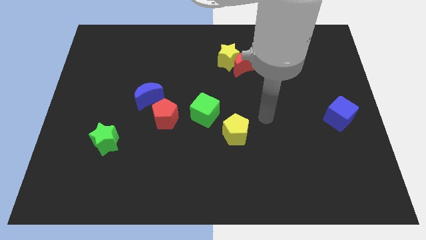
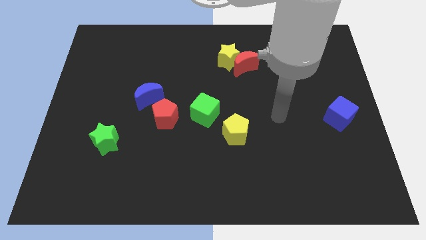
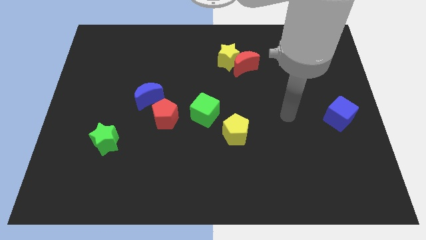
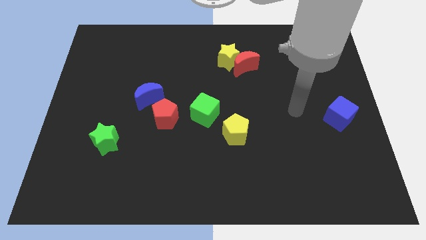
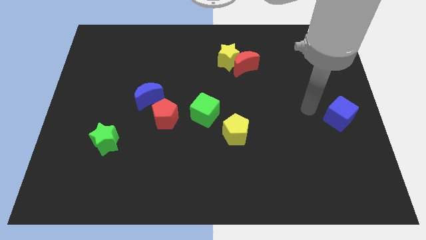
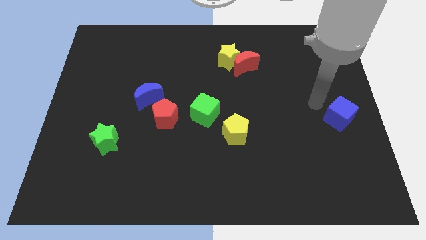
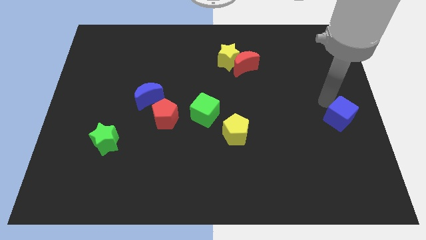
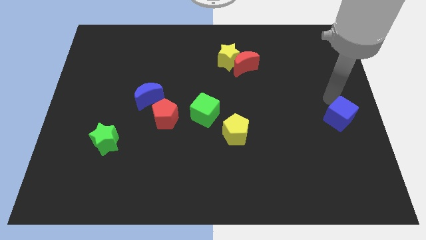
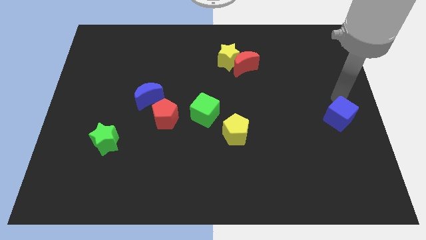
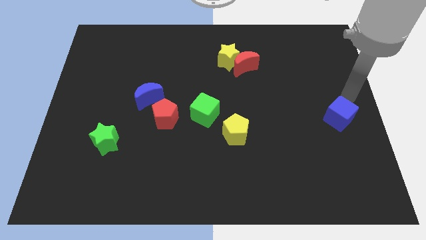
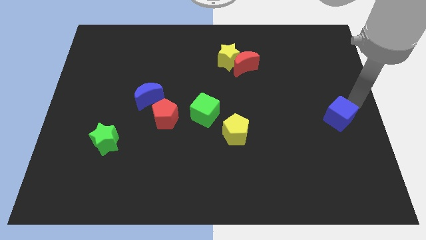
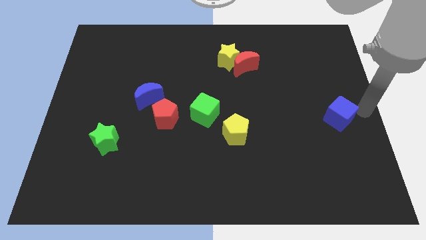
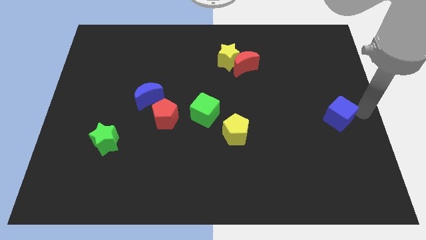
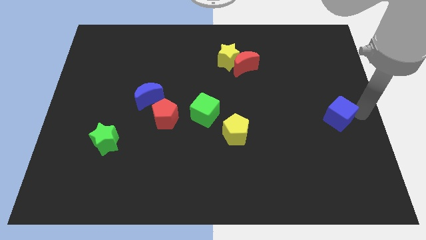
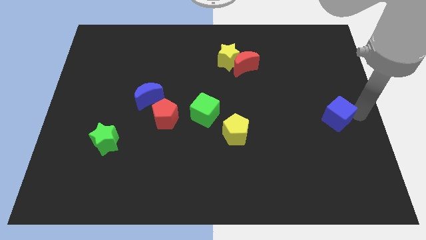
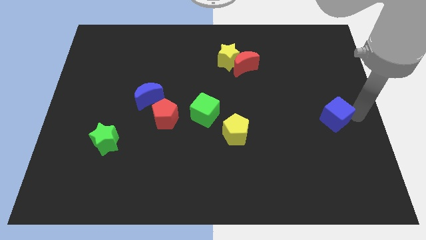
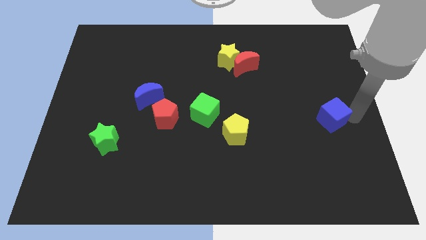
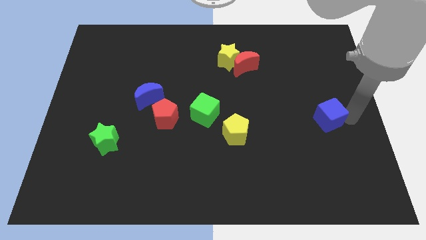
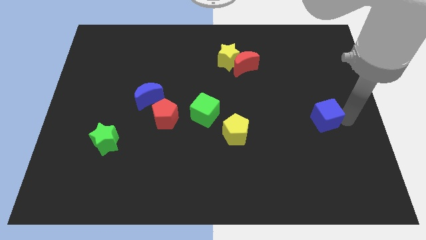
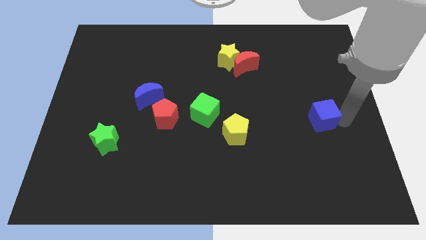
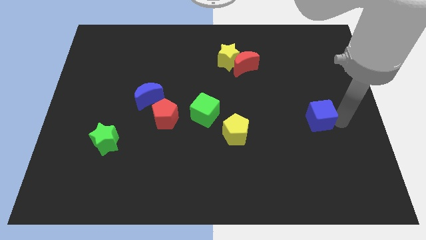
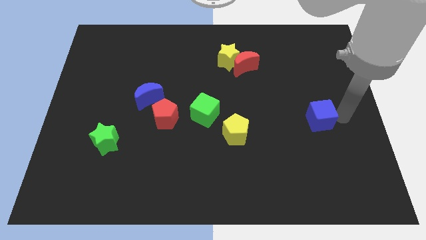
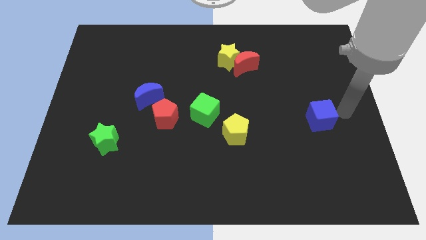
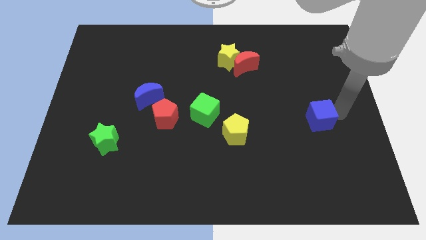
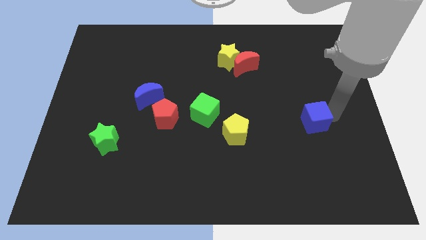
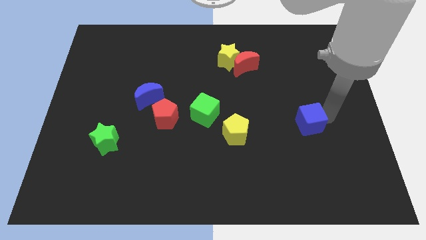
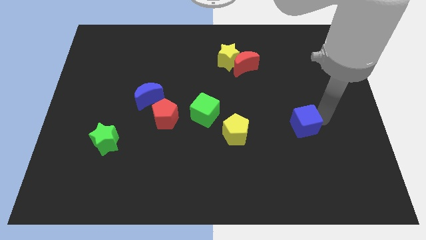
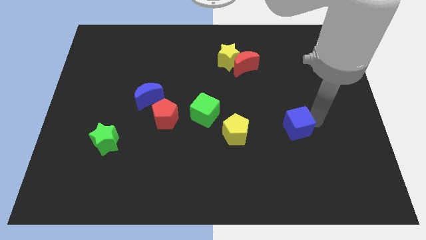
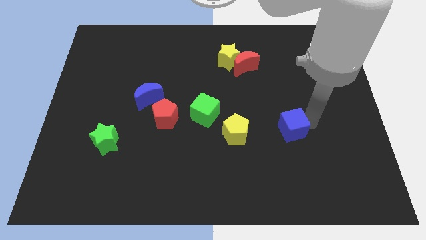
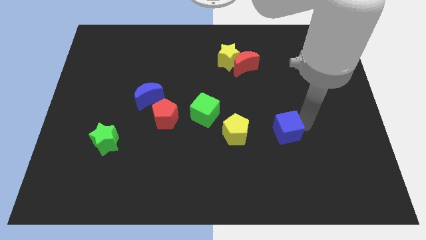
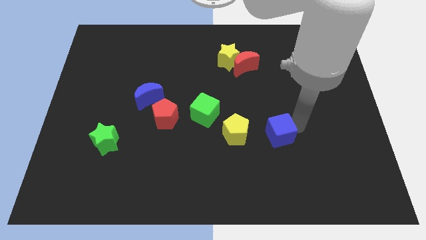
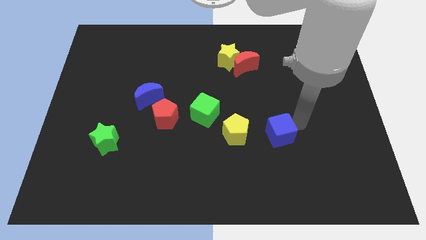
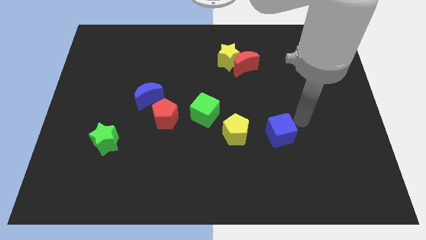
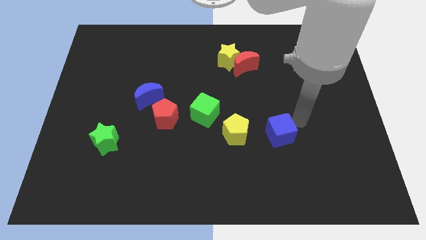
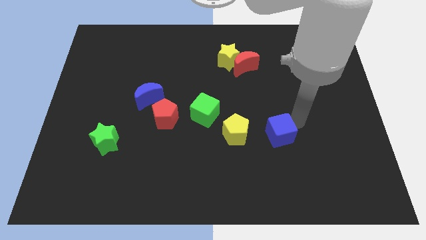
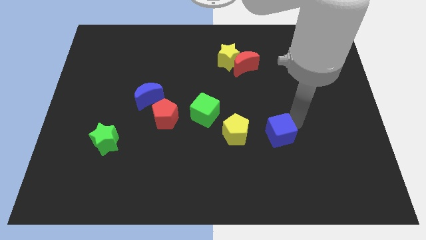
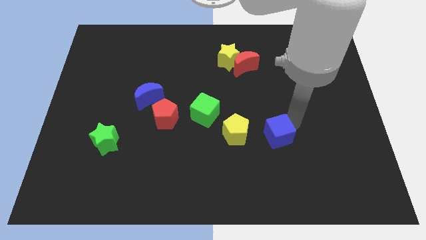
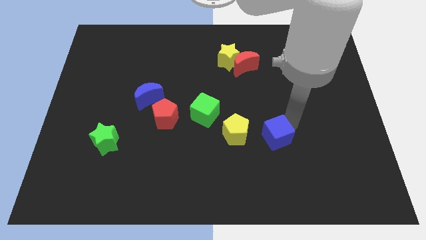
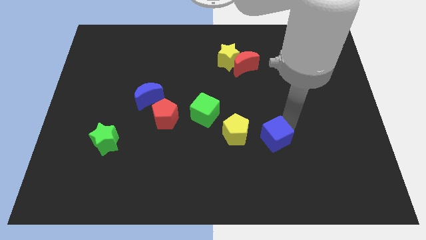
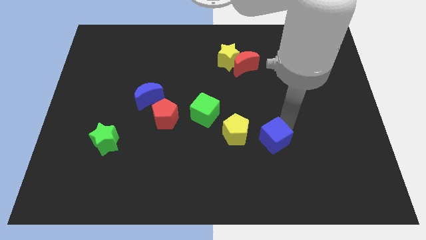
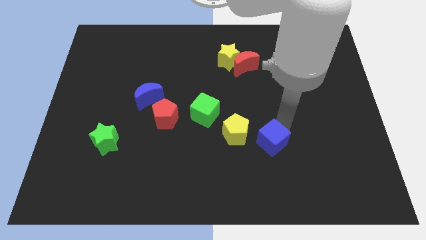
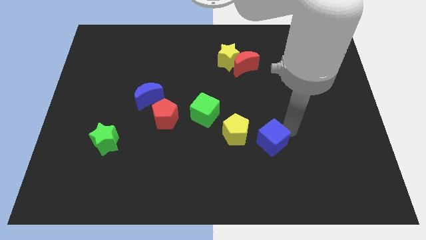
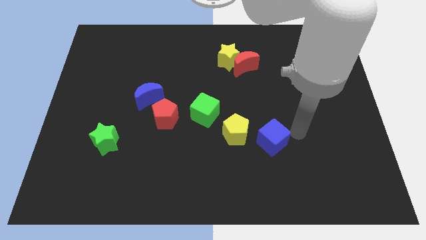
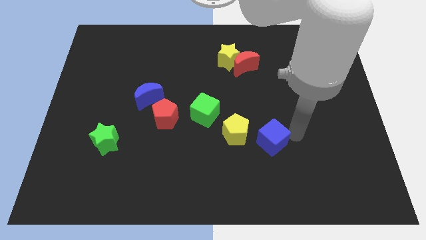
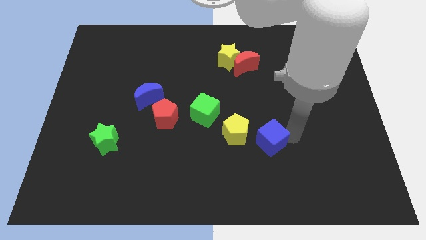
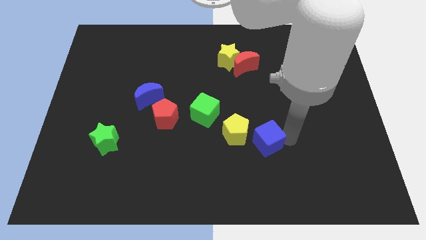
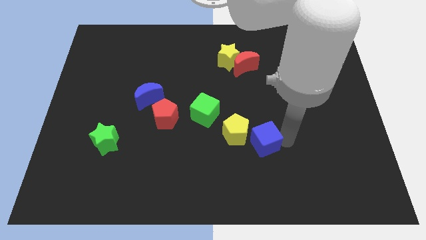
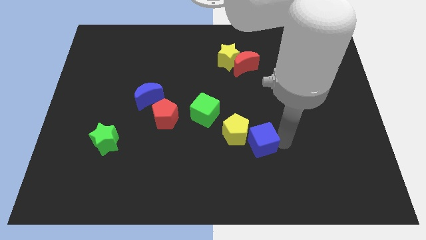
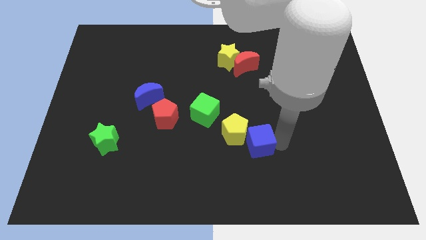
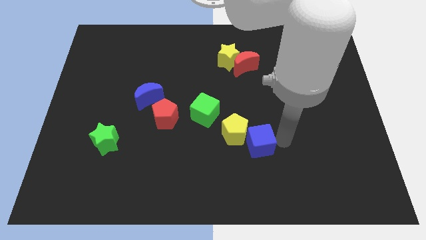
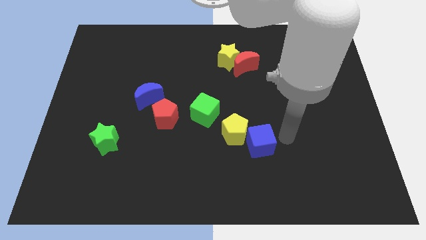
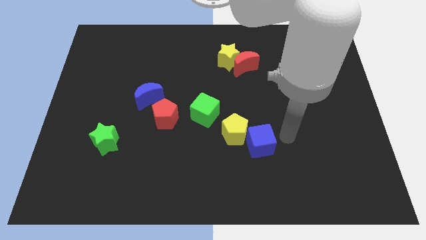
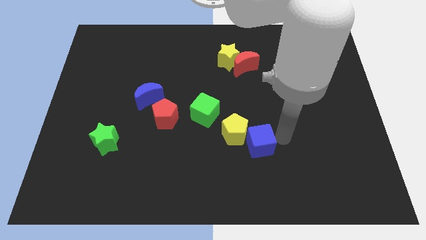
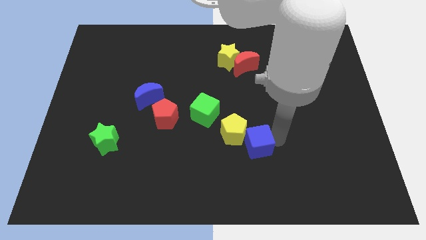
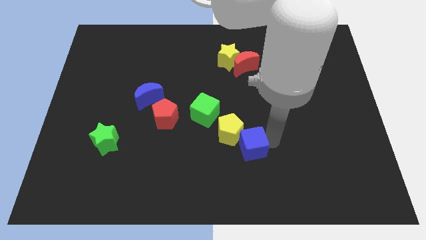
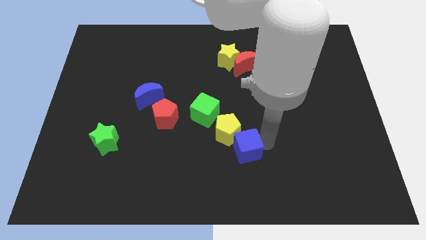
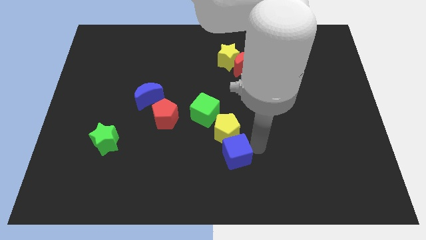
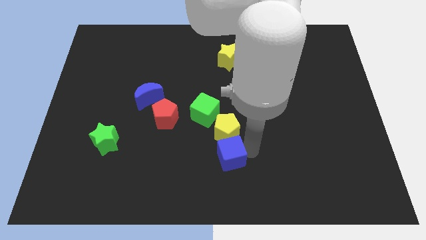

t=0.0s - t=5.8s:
slide the blue cube to the bottom left side of the yellow pentagon

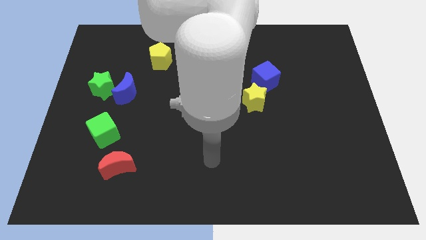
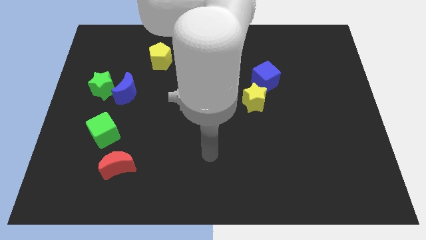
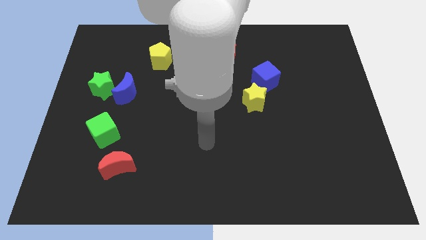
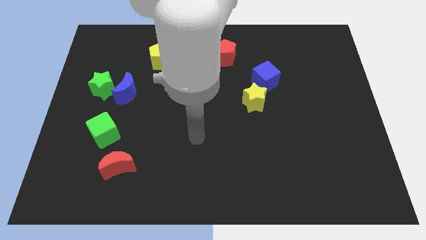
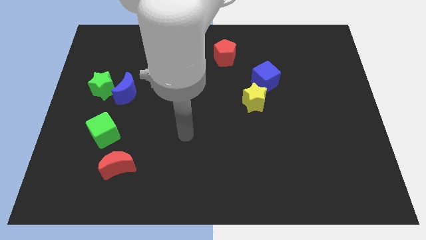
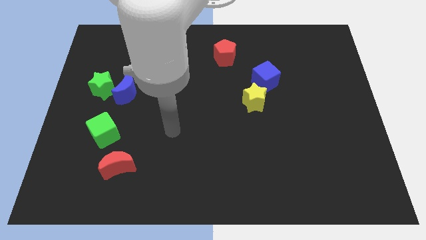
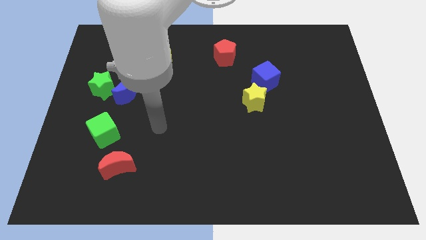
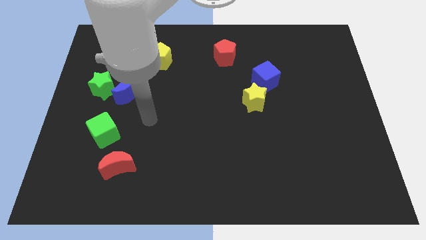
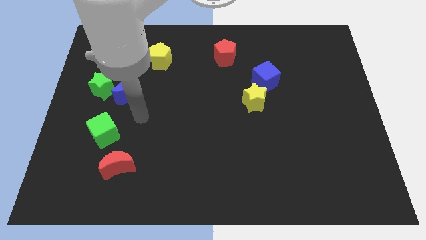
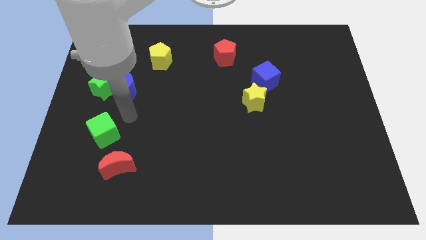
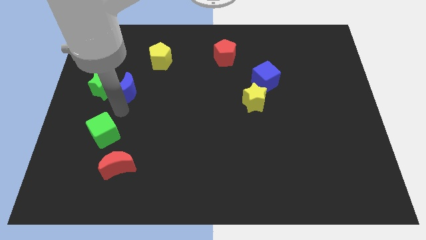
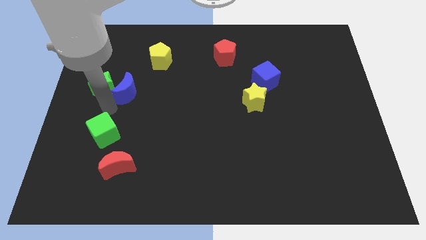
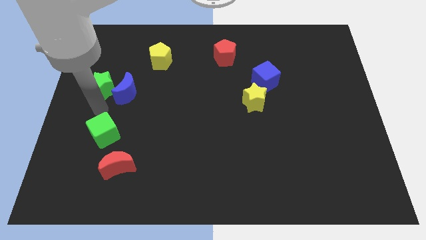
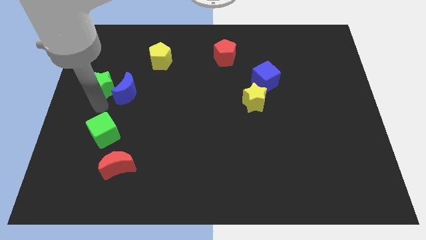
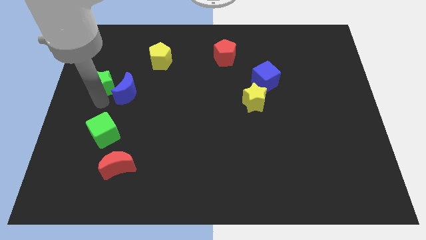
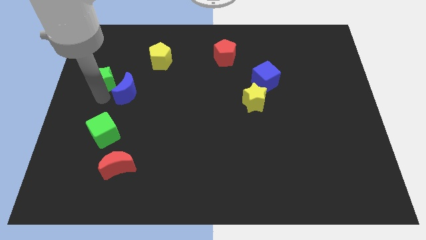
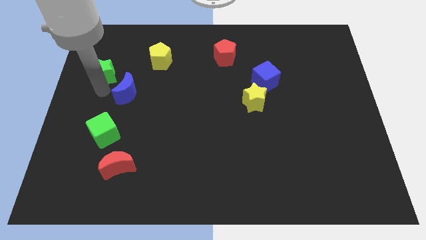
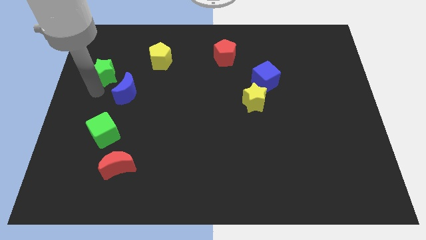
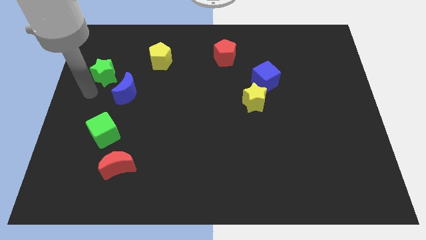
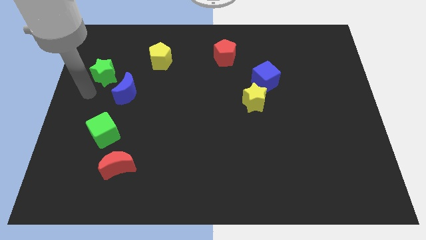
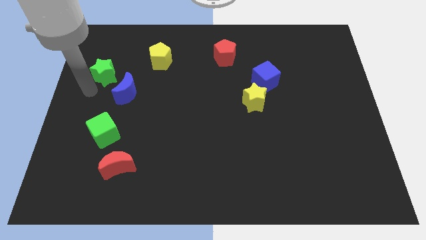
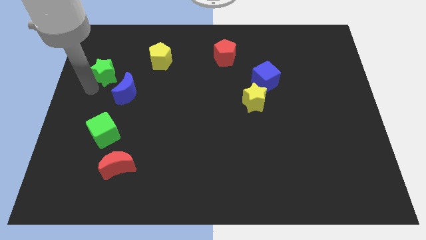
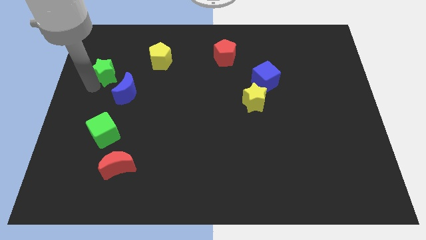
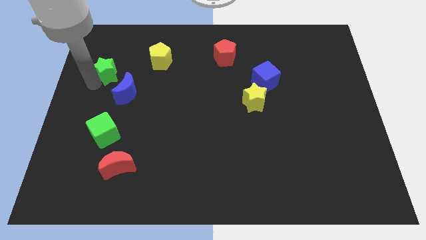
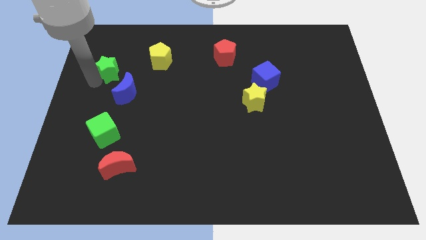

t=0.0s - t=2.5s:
push the green star to the left side of the yellow pentagon
